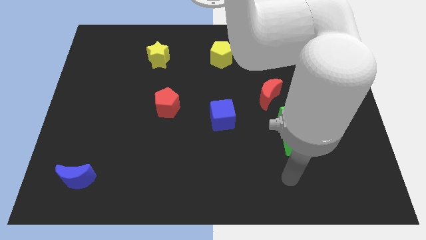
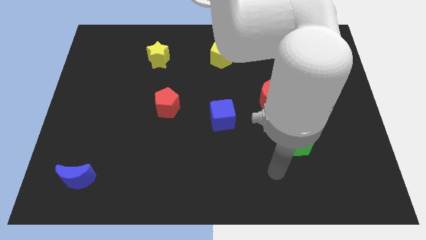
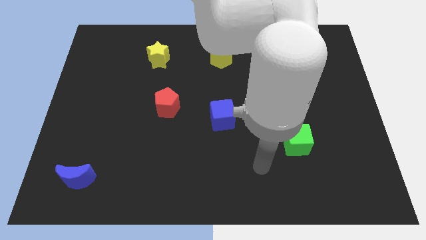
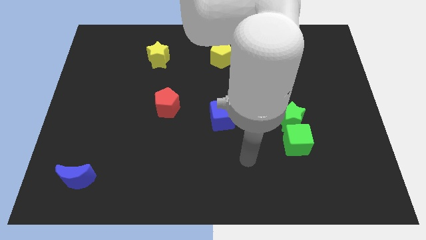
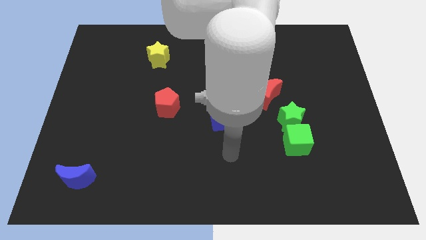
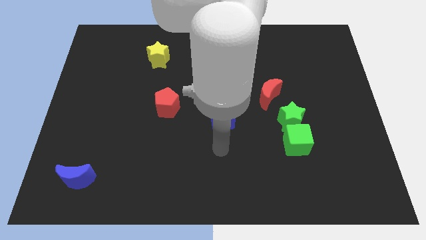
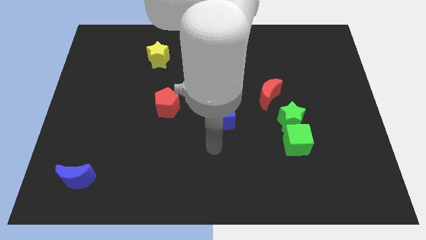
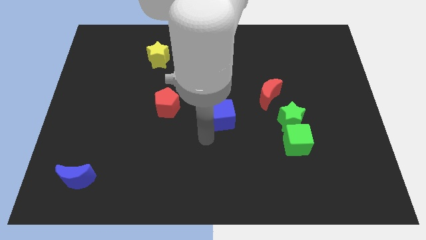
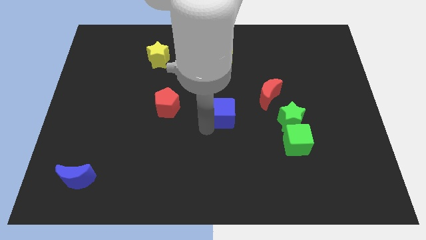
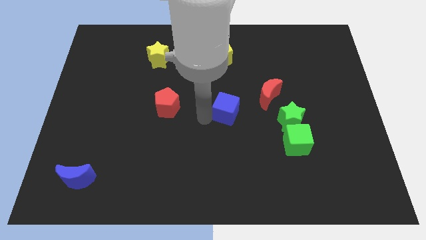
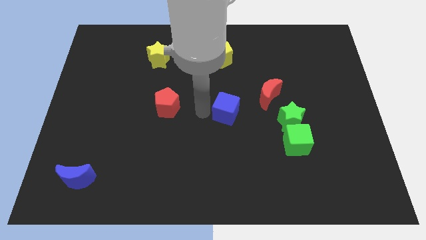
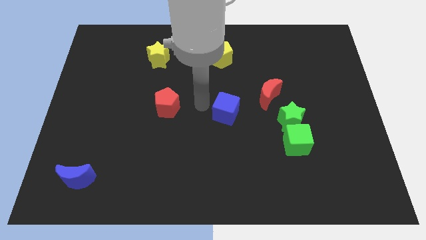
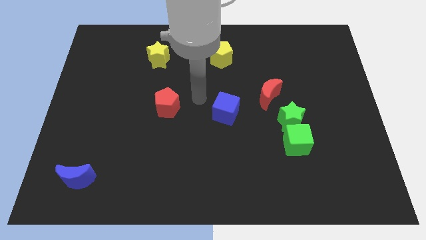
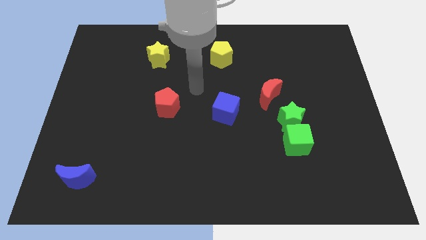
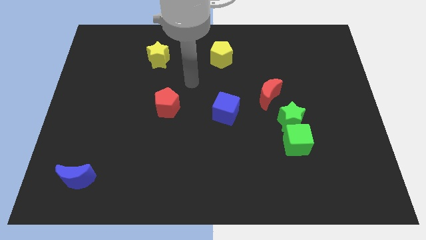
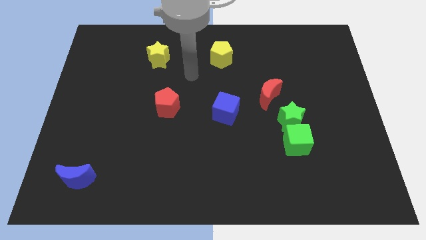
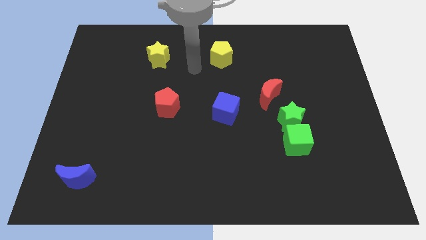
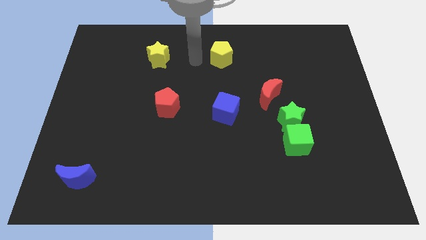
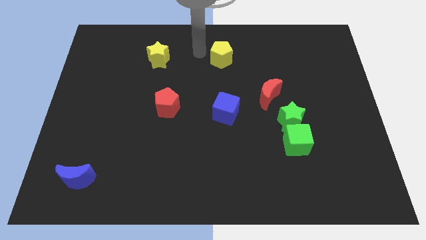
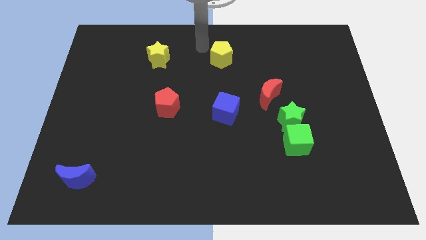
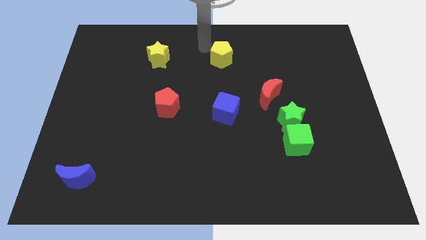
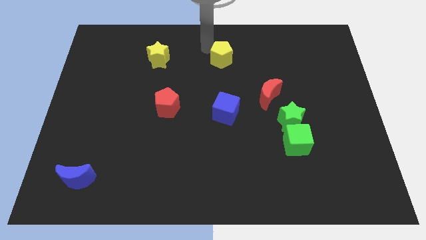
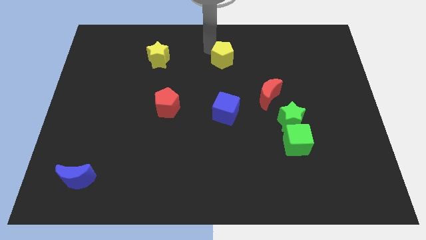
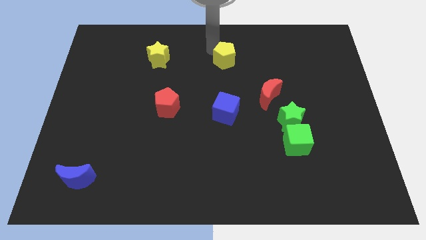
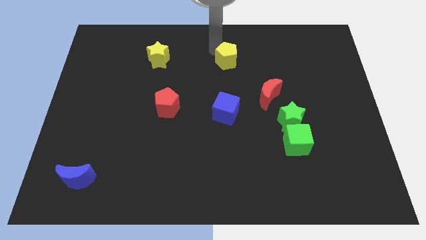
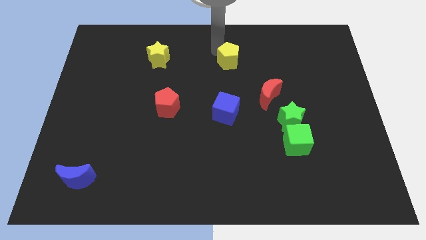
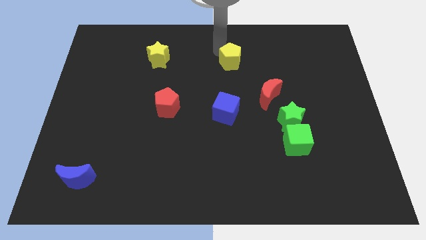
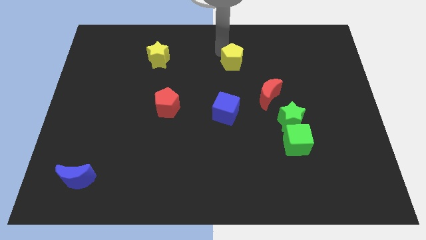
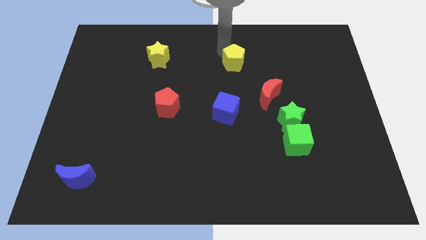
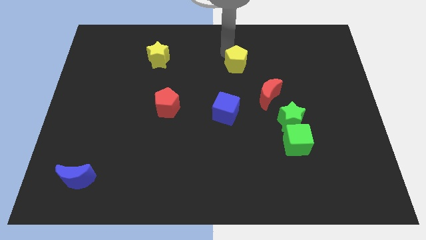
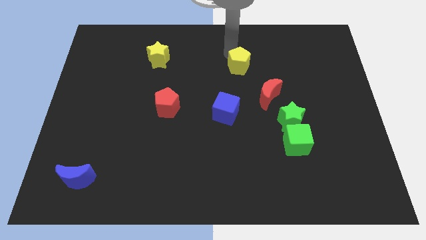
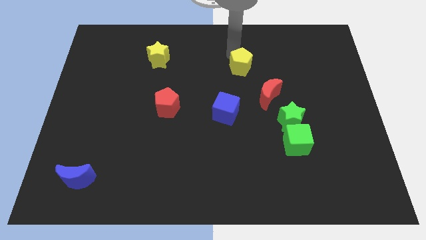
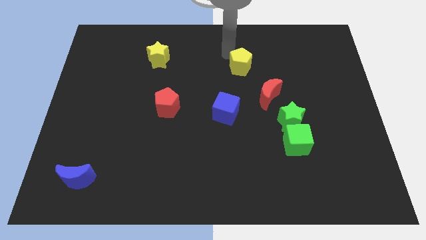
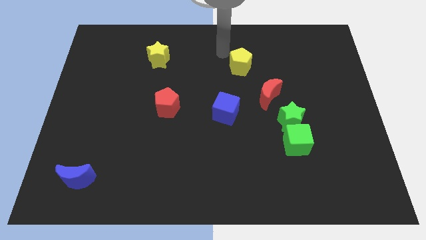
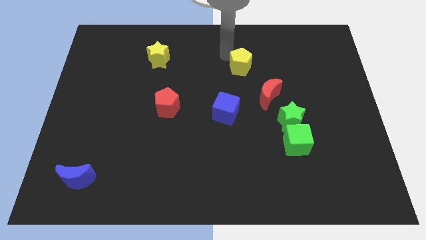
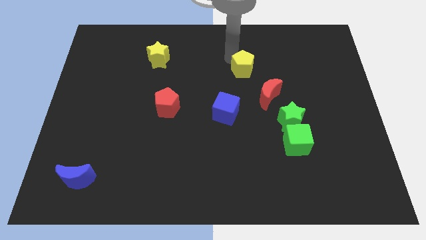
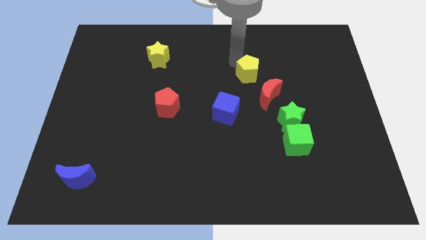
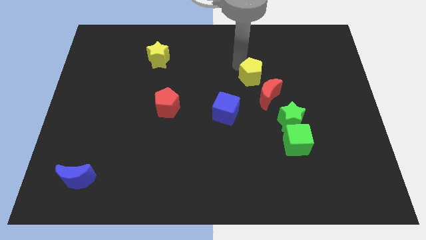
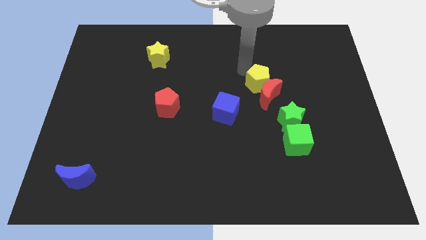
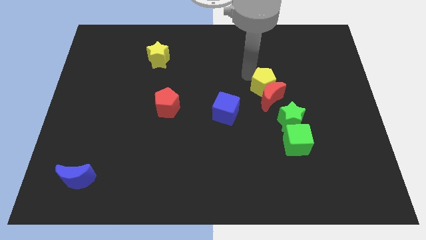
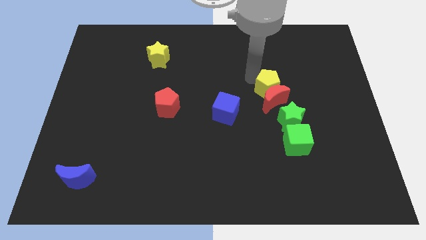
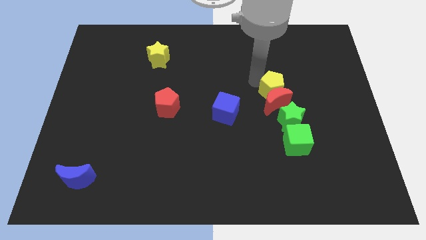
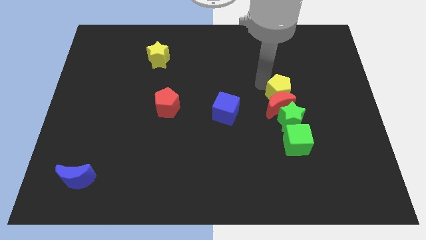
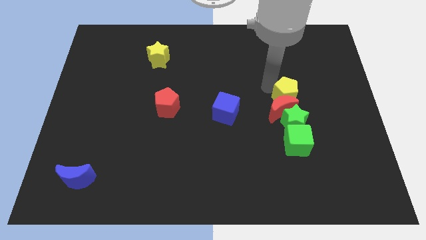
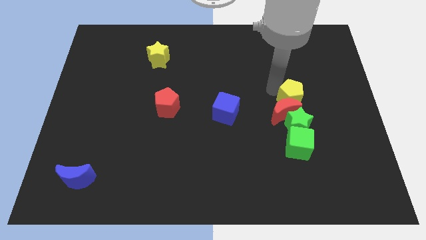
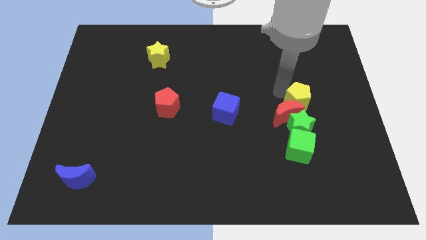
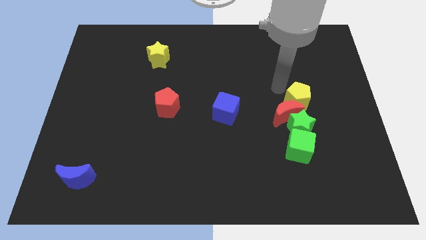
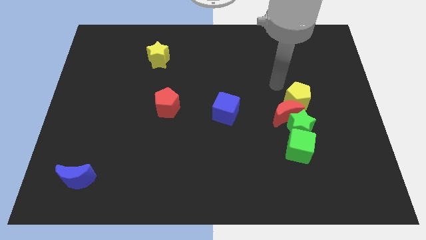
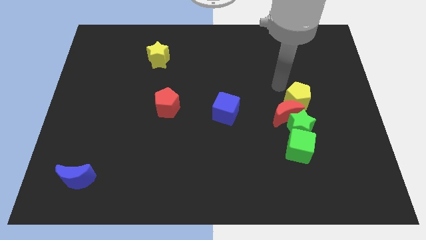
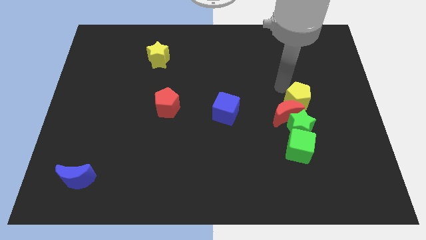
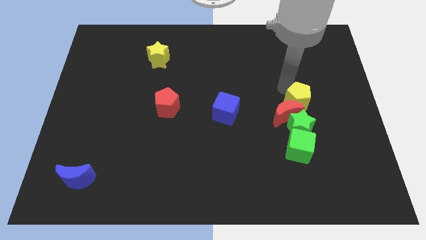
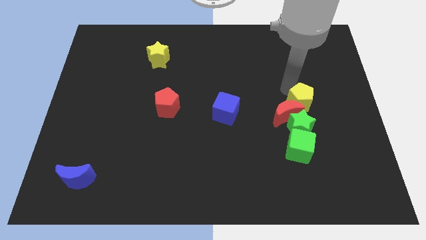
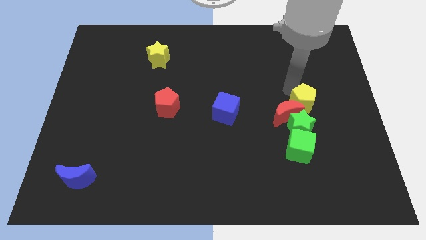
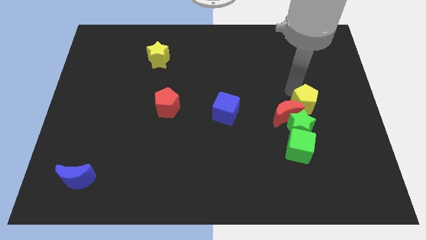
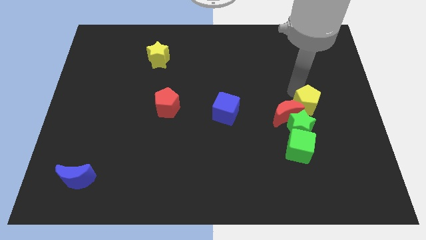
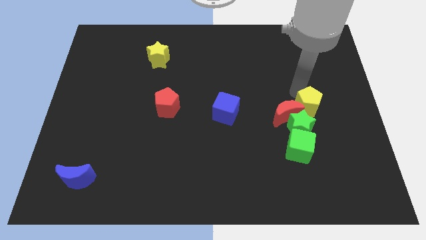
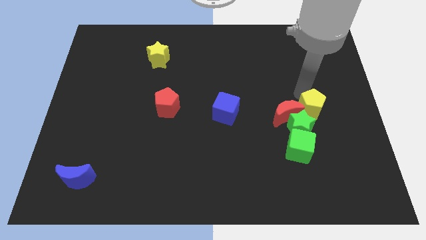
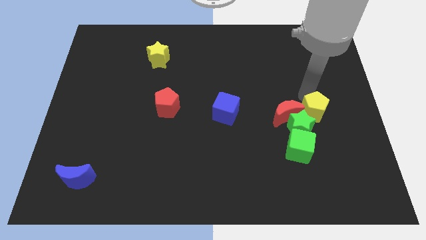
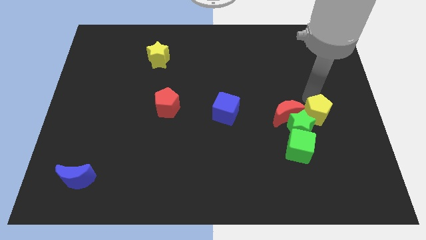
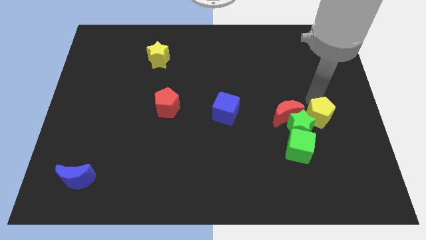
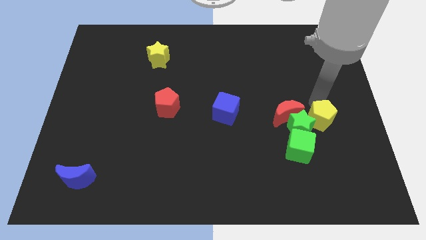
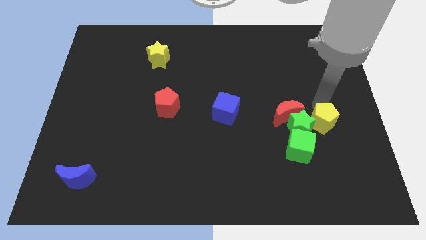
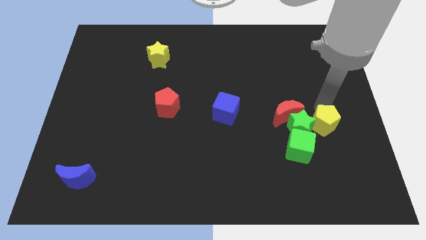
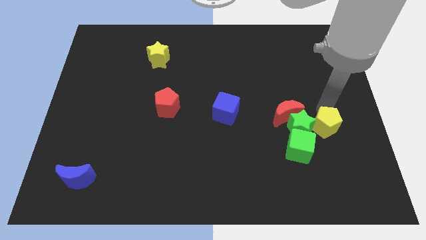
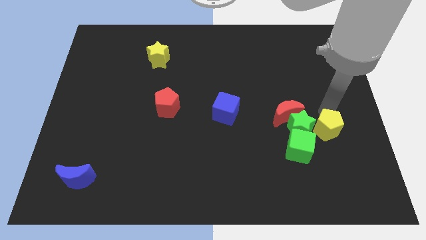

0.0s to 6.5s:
push the yellow pentagon to the bottom right of the green star

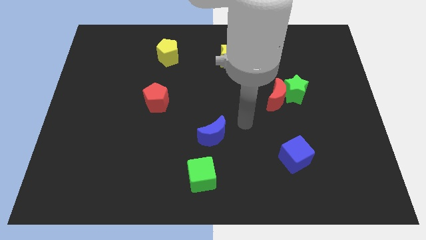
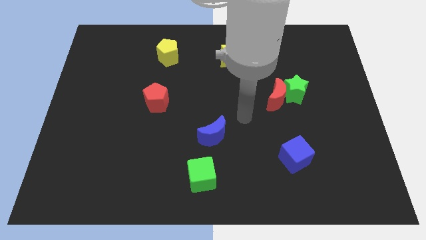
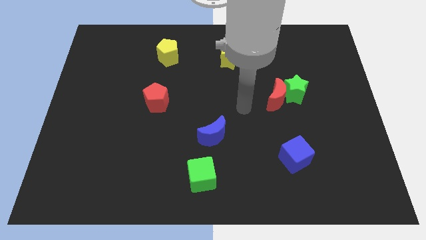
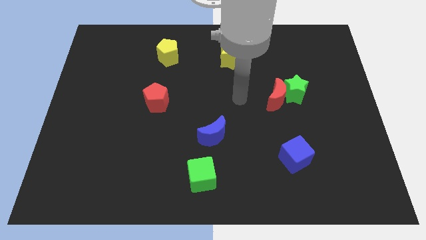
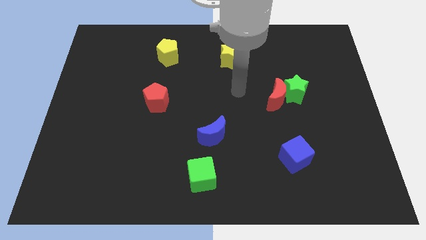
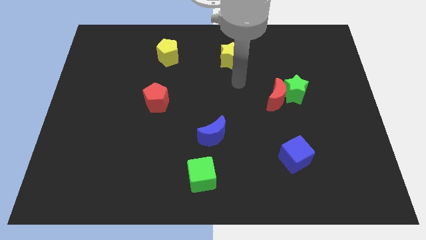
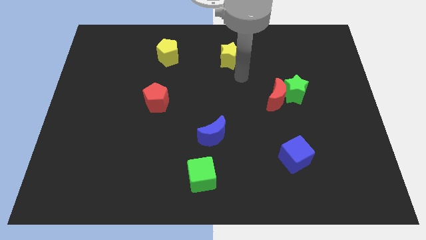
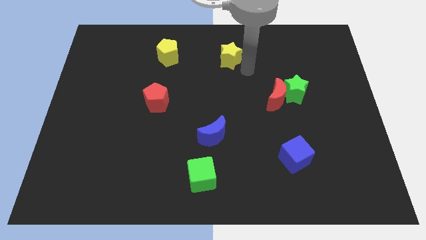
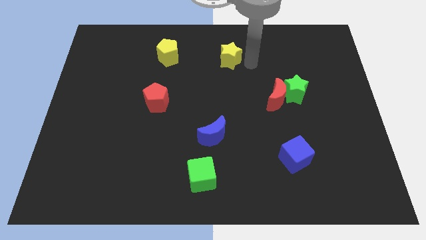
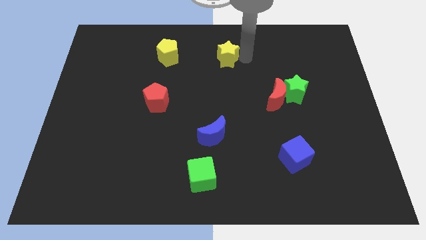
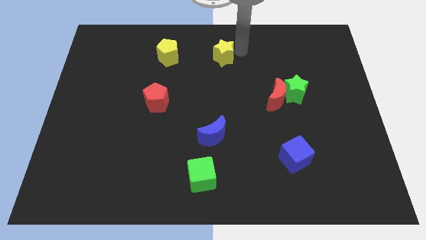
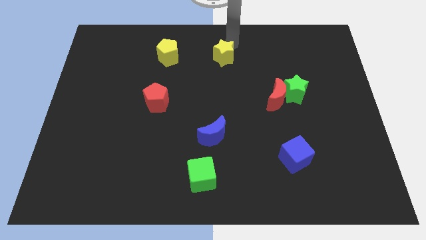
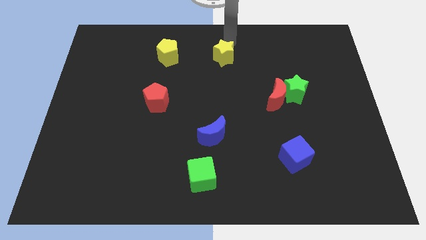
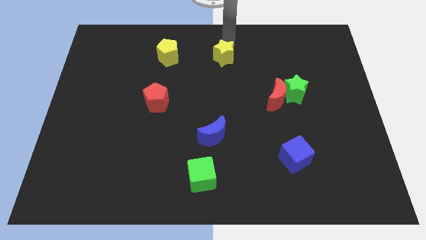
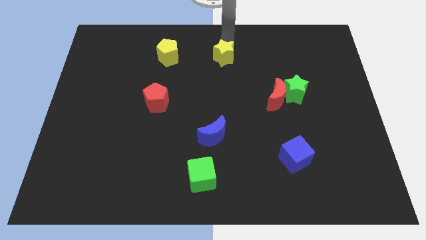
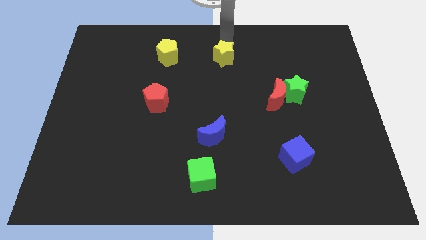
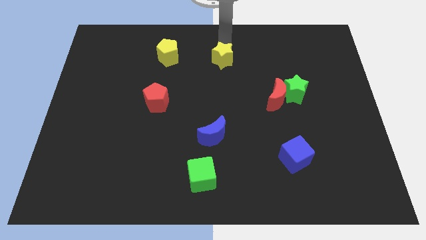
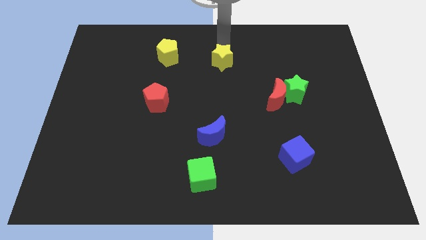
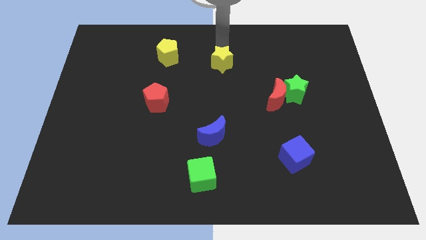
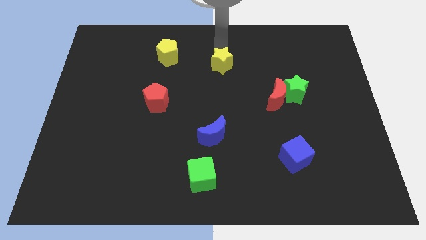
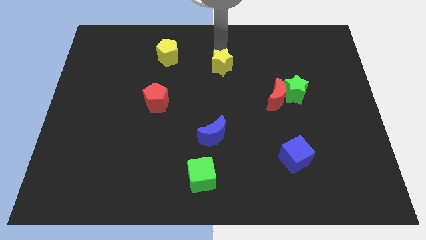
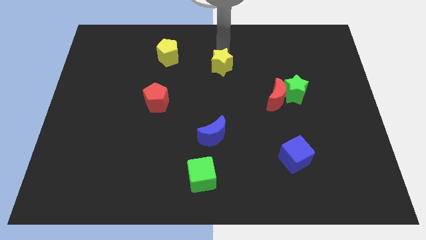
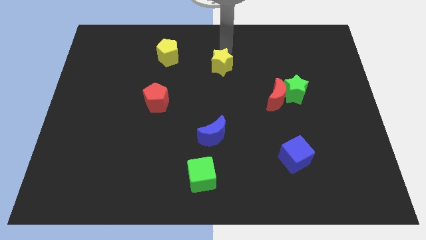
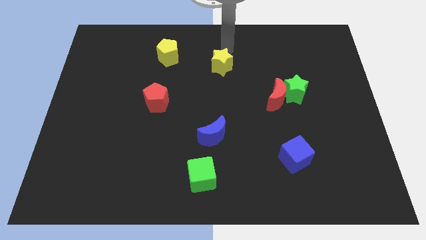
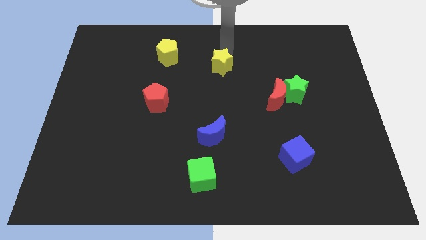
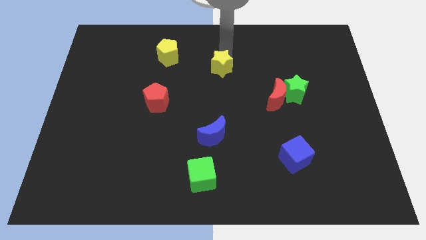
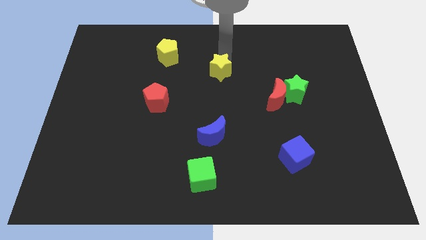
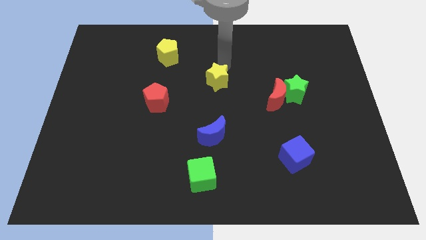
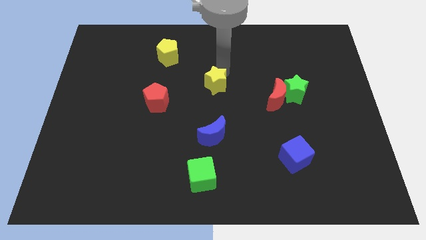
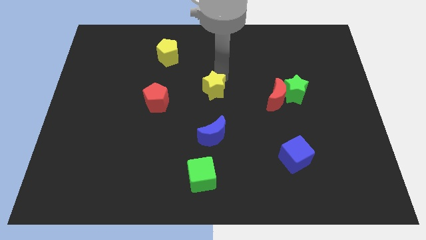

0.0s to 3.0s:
slide the yellow star to the right of the red pentagon
